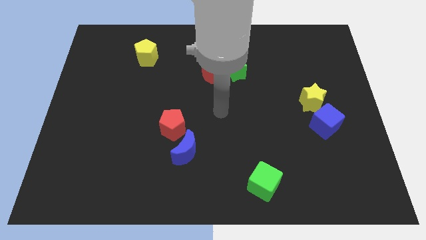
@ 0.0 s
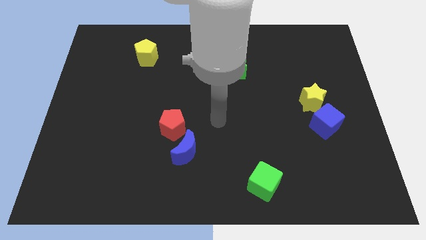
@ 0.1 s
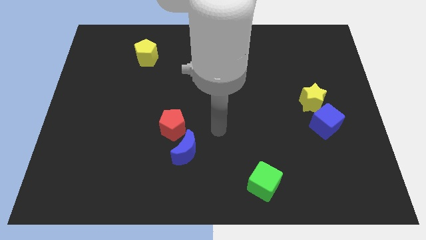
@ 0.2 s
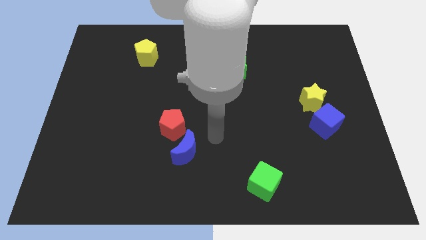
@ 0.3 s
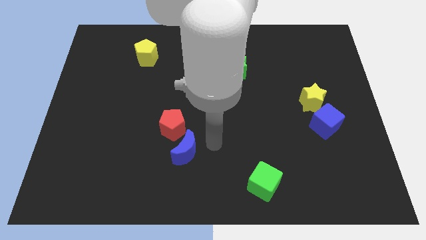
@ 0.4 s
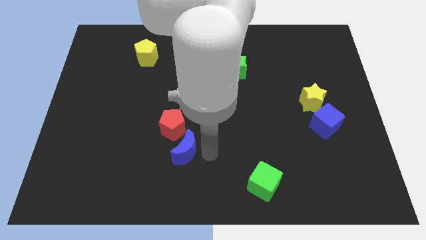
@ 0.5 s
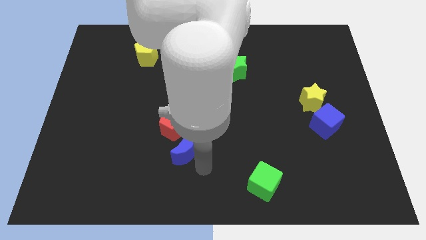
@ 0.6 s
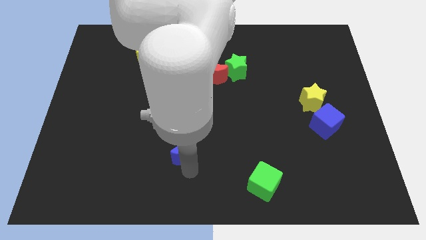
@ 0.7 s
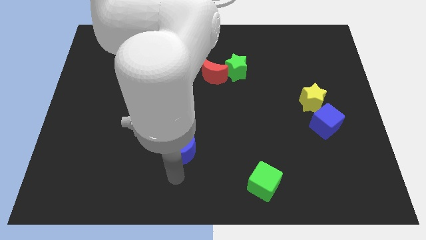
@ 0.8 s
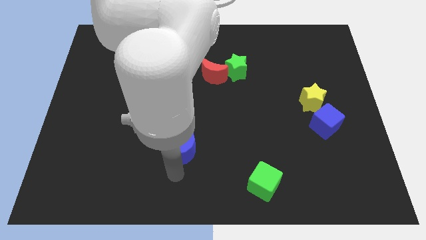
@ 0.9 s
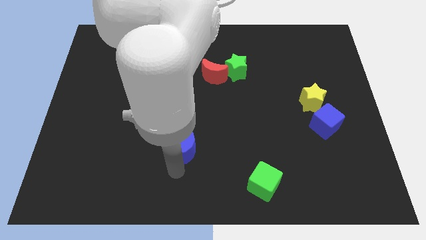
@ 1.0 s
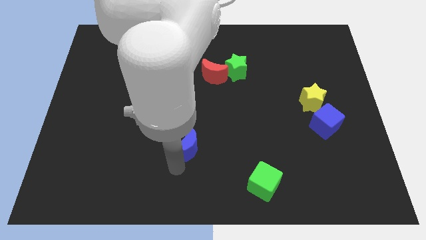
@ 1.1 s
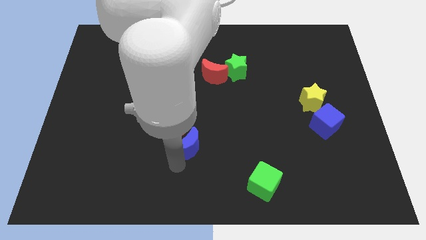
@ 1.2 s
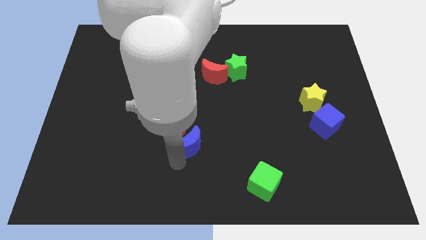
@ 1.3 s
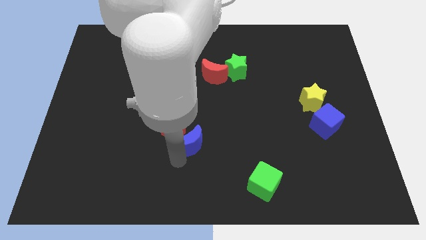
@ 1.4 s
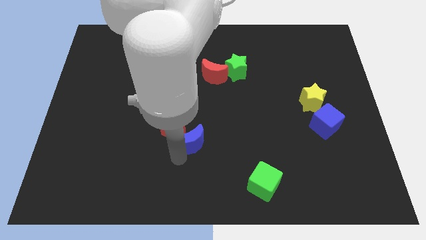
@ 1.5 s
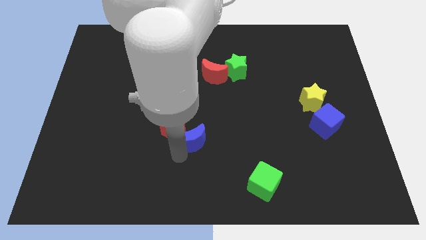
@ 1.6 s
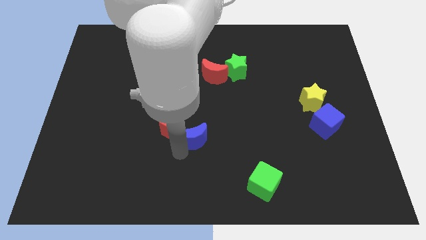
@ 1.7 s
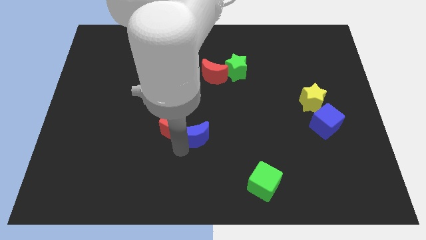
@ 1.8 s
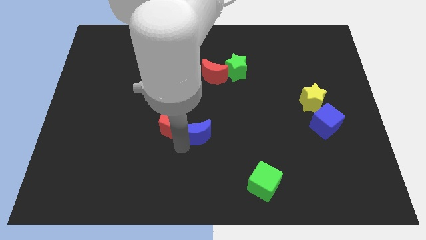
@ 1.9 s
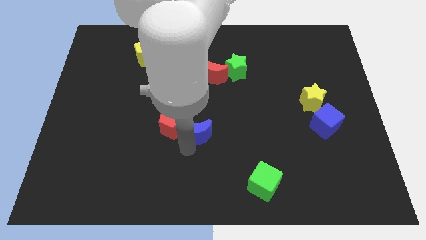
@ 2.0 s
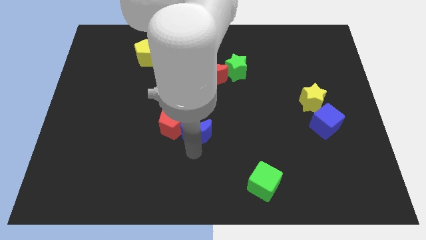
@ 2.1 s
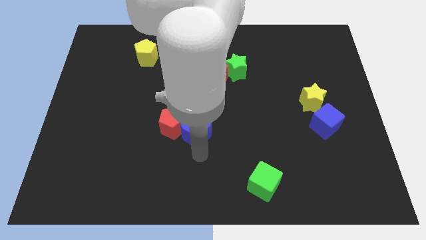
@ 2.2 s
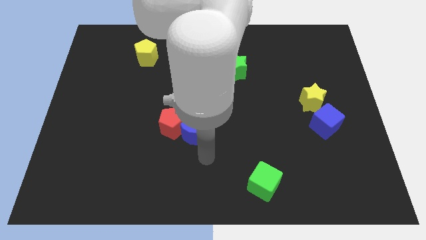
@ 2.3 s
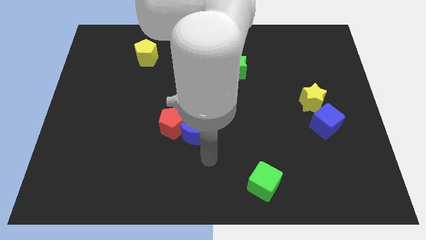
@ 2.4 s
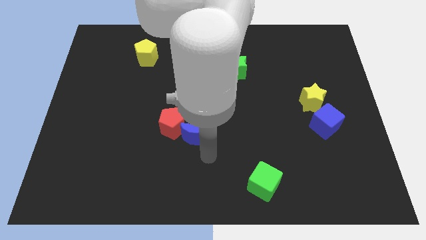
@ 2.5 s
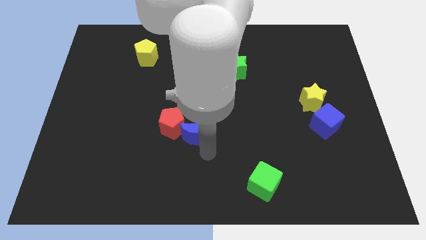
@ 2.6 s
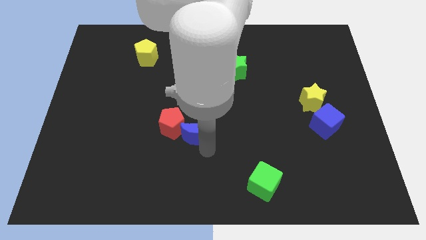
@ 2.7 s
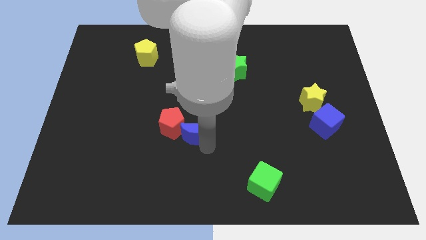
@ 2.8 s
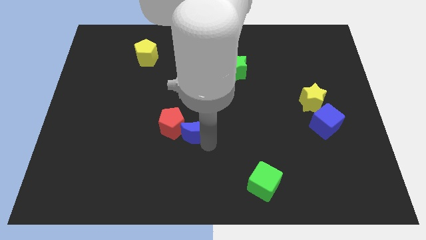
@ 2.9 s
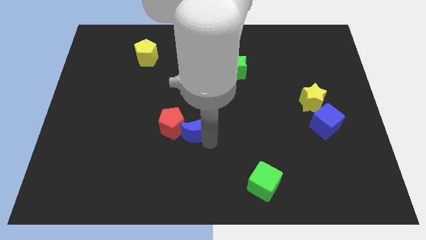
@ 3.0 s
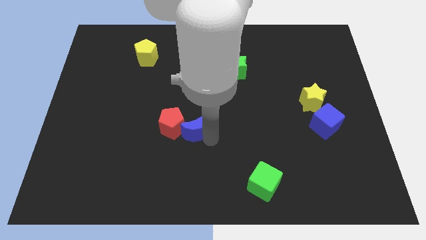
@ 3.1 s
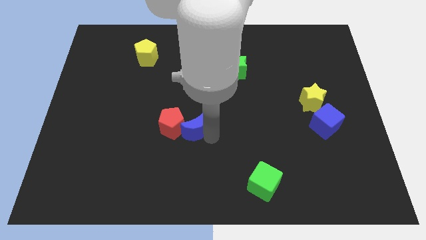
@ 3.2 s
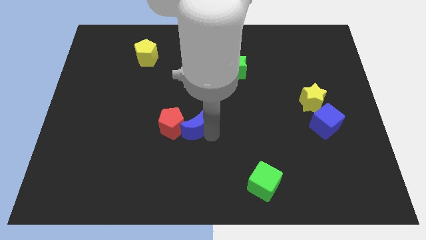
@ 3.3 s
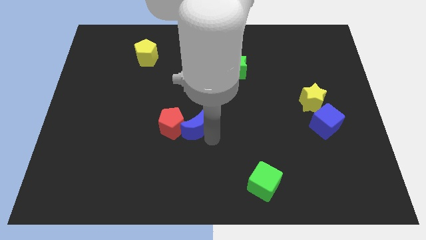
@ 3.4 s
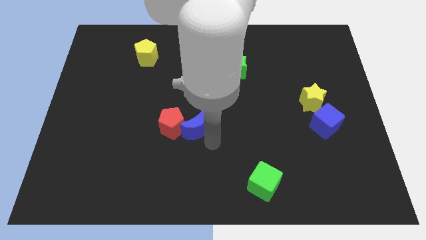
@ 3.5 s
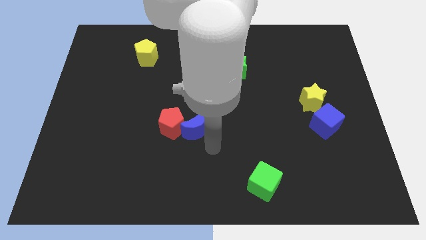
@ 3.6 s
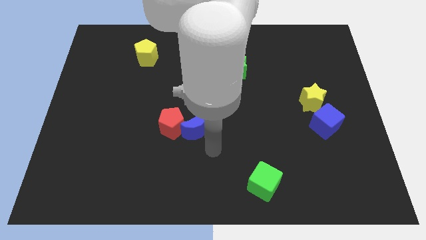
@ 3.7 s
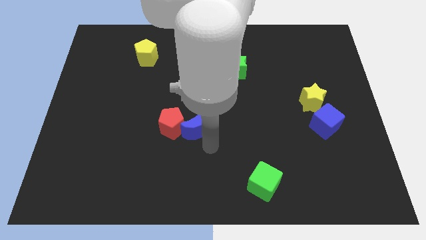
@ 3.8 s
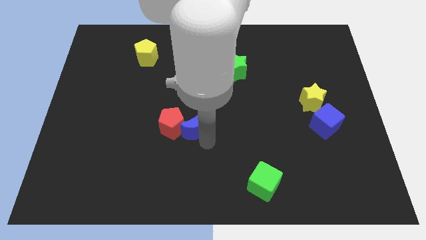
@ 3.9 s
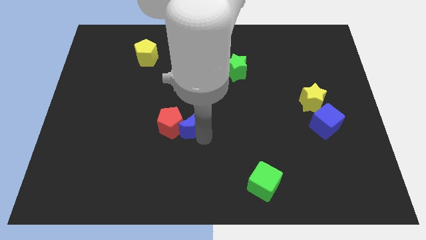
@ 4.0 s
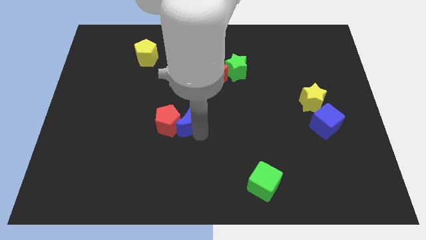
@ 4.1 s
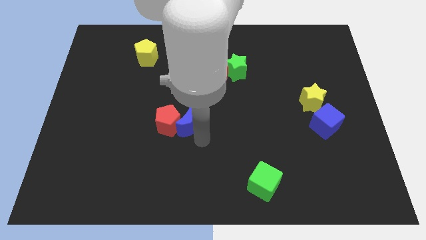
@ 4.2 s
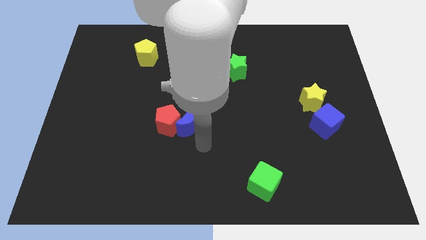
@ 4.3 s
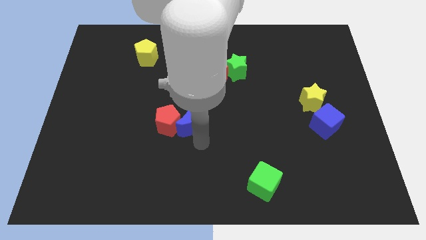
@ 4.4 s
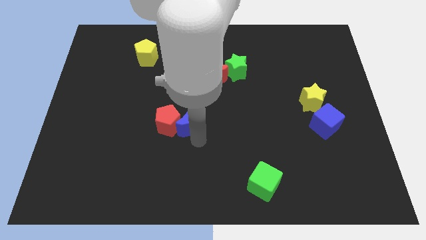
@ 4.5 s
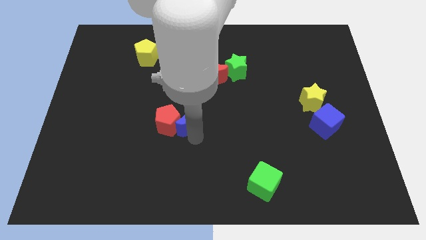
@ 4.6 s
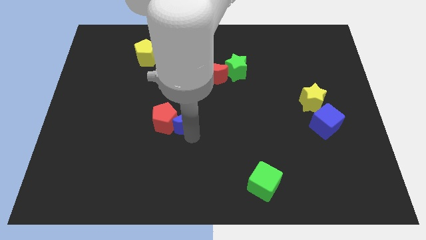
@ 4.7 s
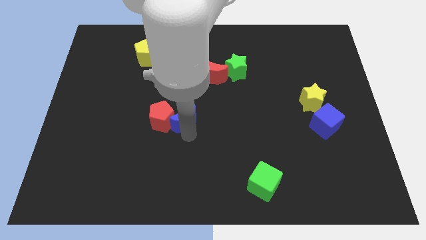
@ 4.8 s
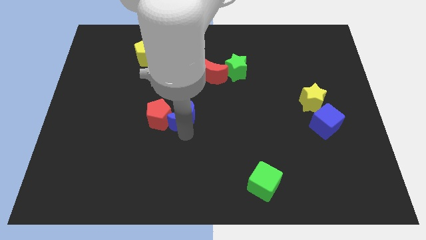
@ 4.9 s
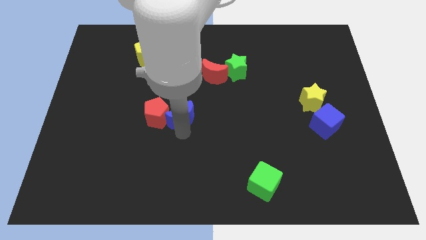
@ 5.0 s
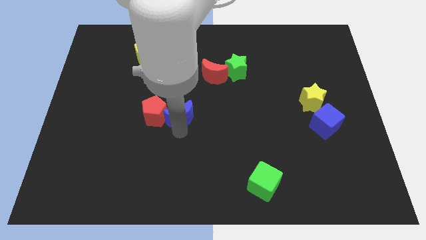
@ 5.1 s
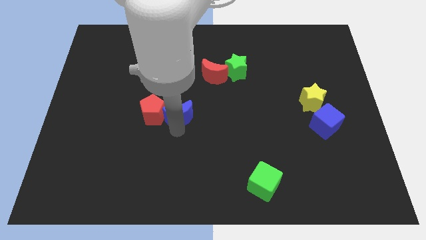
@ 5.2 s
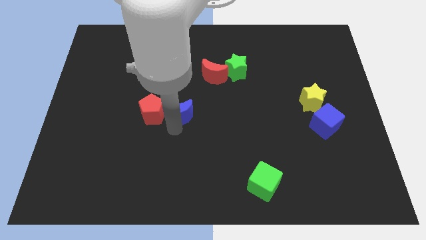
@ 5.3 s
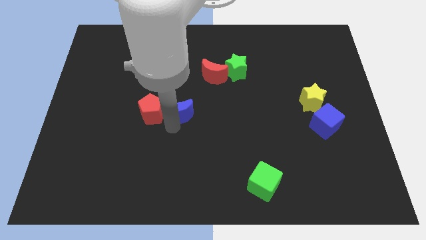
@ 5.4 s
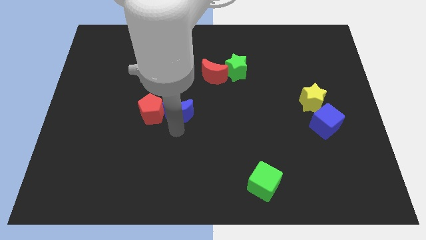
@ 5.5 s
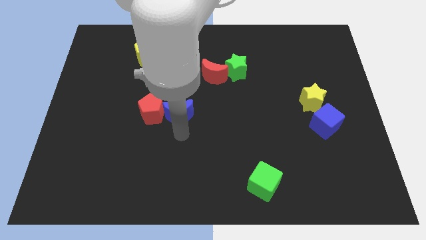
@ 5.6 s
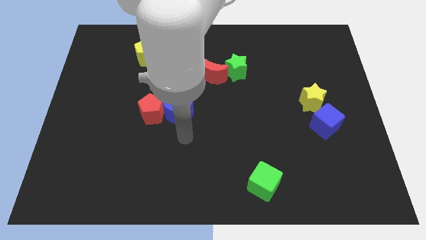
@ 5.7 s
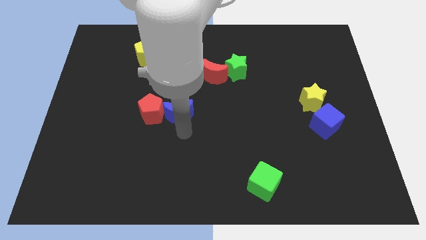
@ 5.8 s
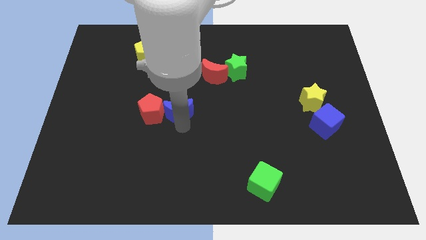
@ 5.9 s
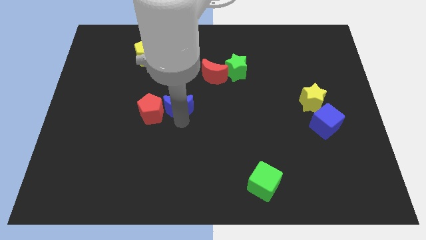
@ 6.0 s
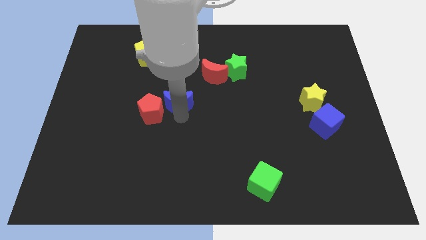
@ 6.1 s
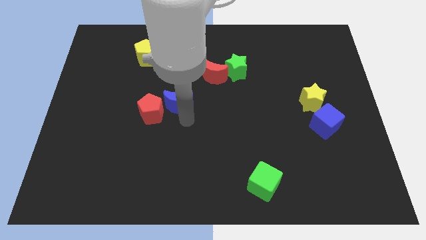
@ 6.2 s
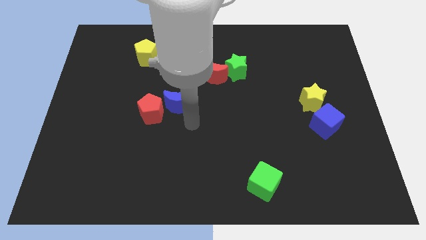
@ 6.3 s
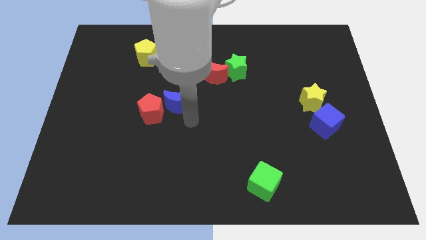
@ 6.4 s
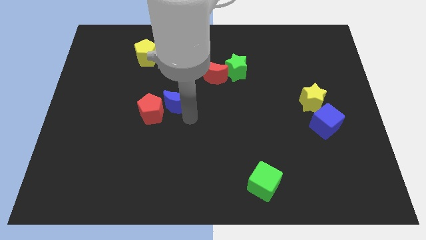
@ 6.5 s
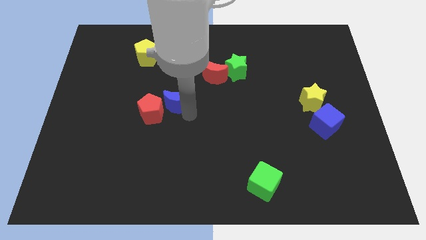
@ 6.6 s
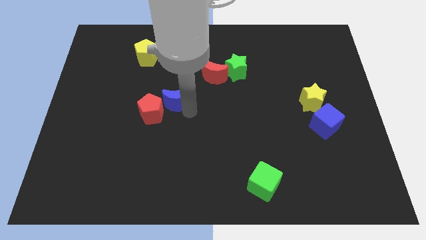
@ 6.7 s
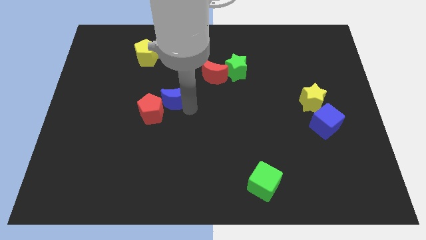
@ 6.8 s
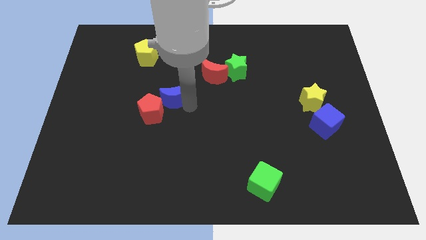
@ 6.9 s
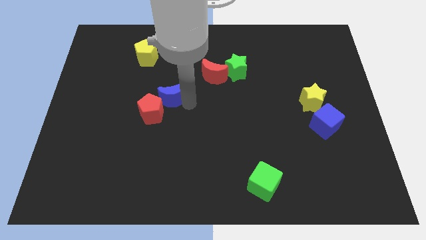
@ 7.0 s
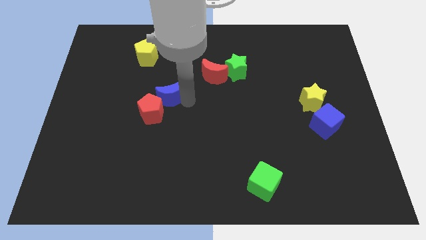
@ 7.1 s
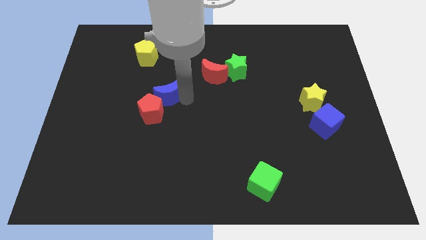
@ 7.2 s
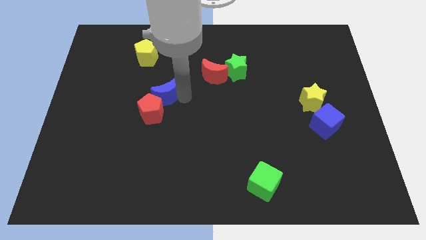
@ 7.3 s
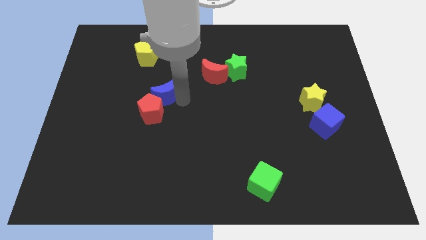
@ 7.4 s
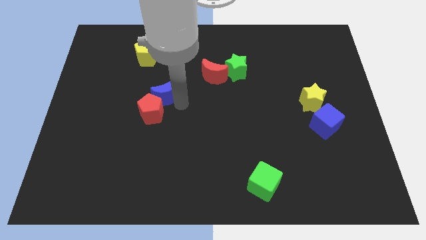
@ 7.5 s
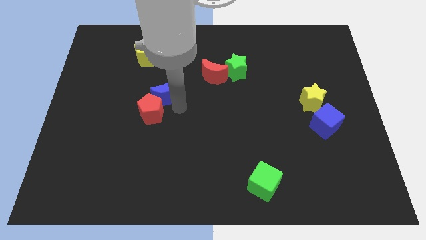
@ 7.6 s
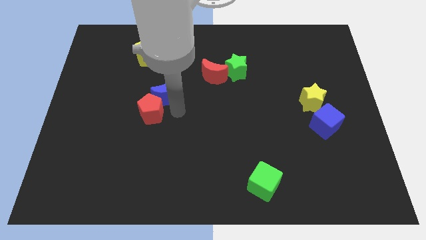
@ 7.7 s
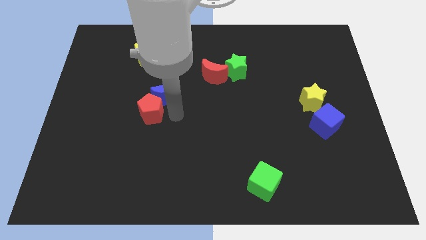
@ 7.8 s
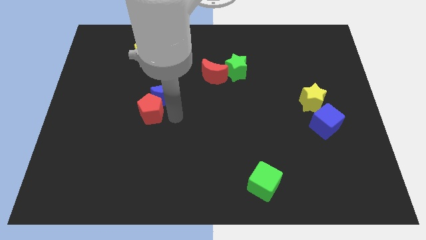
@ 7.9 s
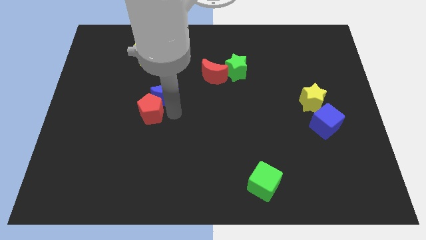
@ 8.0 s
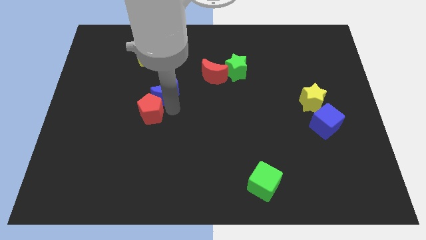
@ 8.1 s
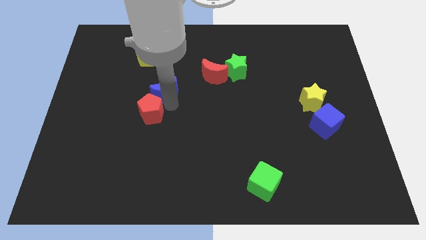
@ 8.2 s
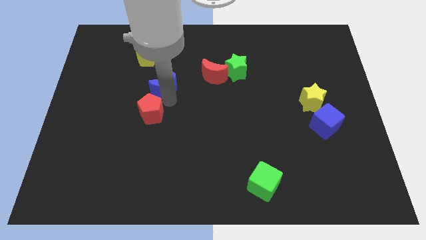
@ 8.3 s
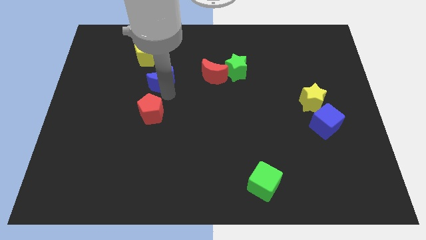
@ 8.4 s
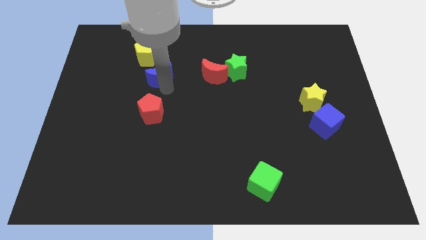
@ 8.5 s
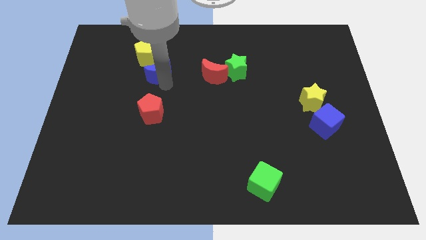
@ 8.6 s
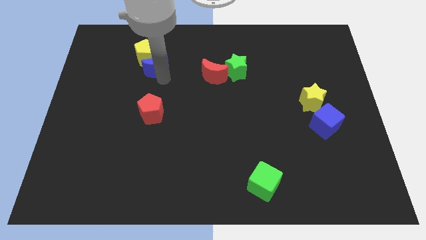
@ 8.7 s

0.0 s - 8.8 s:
put the blue moon to the yellow pentagon
